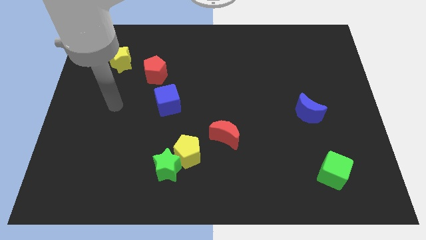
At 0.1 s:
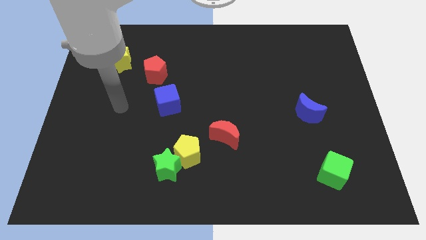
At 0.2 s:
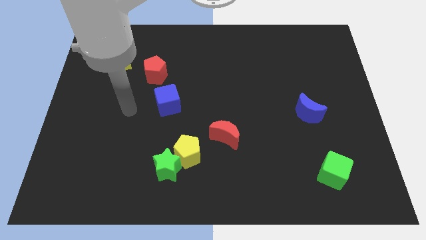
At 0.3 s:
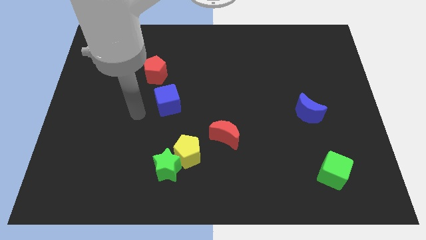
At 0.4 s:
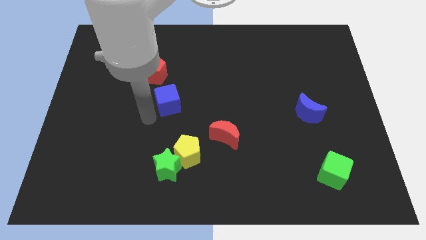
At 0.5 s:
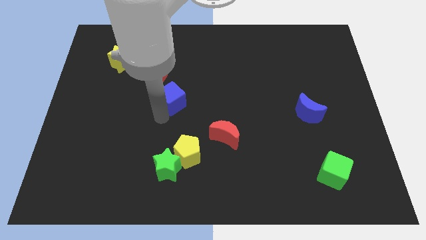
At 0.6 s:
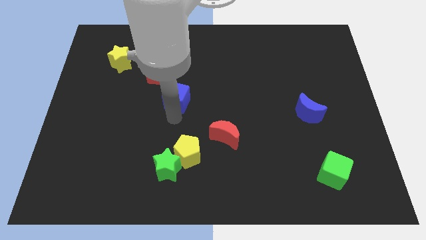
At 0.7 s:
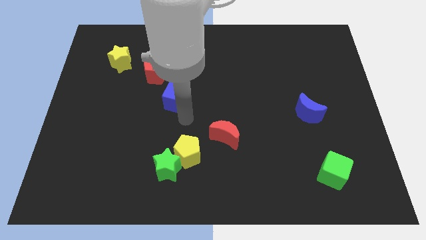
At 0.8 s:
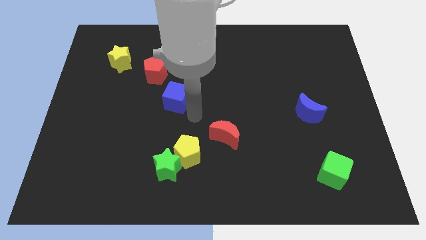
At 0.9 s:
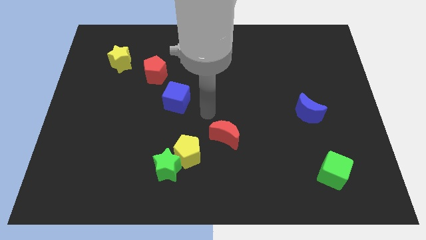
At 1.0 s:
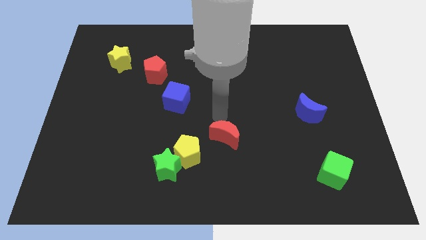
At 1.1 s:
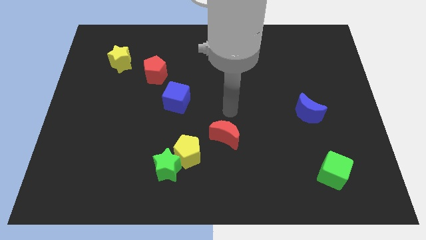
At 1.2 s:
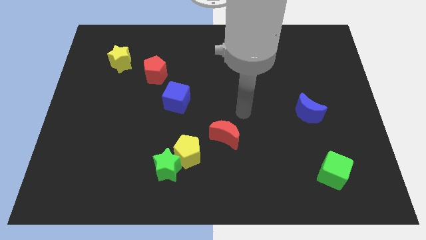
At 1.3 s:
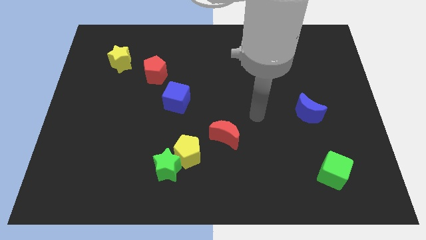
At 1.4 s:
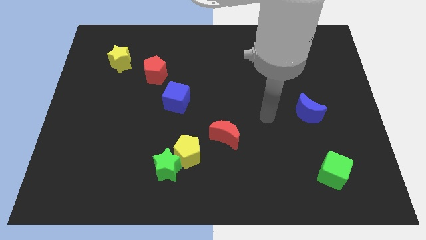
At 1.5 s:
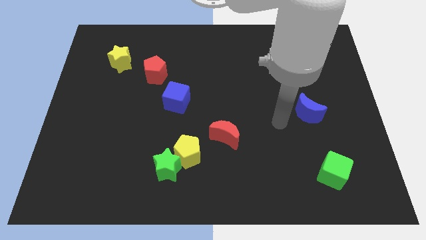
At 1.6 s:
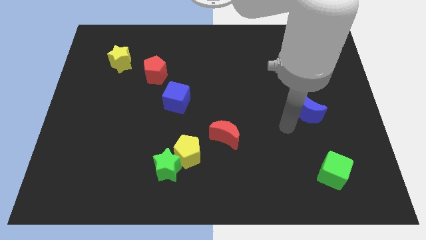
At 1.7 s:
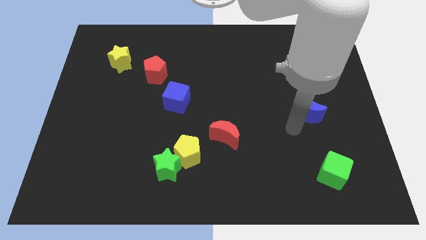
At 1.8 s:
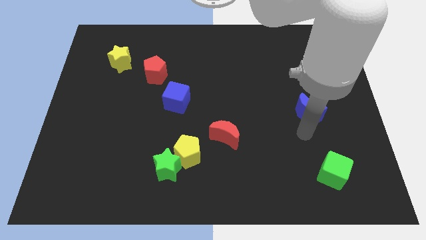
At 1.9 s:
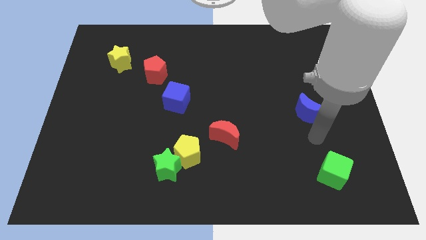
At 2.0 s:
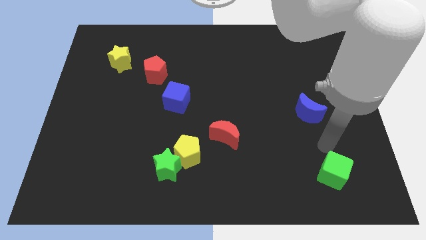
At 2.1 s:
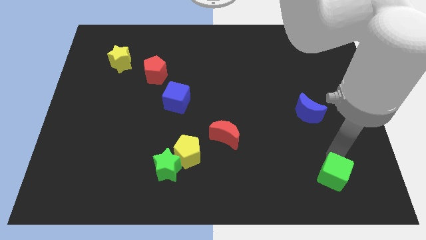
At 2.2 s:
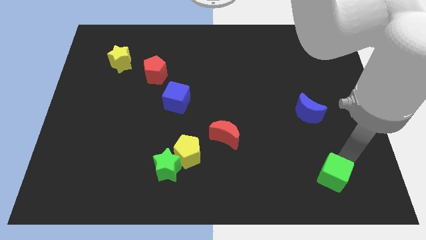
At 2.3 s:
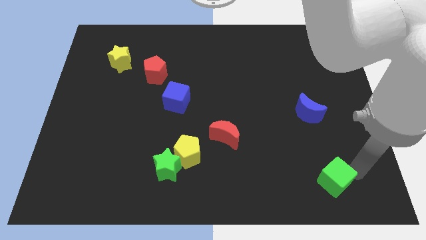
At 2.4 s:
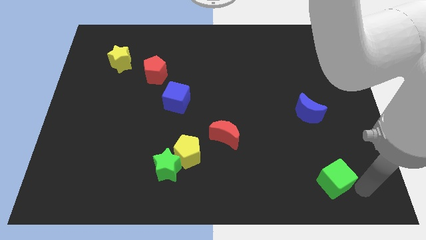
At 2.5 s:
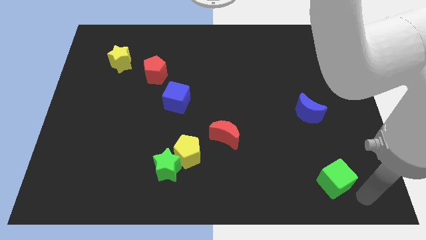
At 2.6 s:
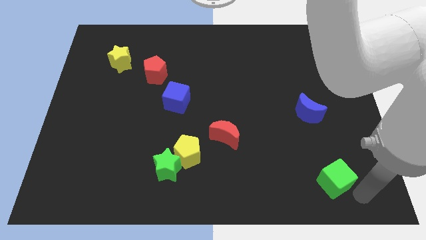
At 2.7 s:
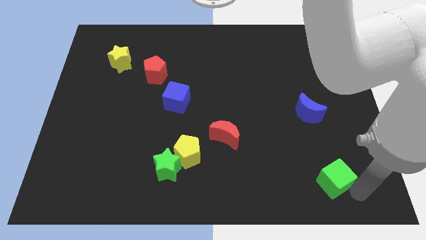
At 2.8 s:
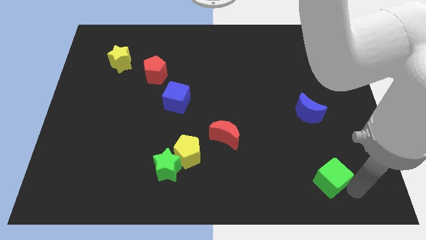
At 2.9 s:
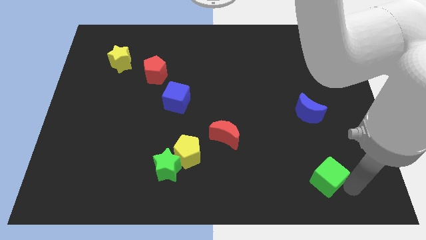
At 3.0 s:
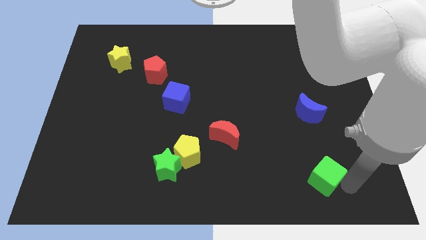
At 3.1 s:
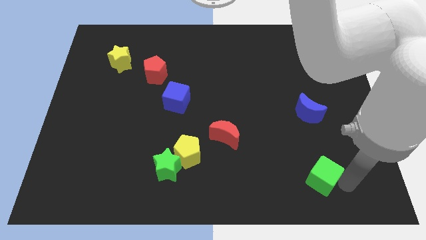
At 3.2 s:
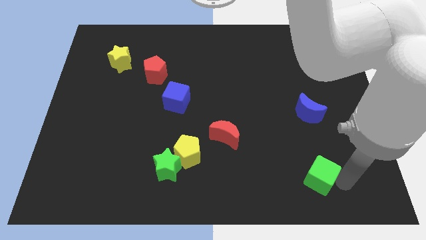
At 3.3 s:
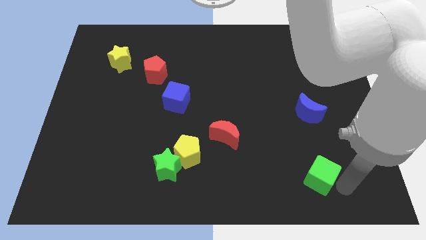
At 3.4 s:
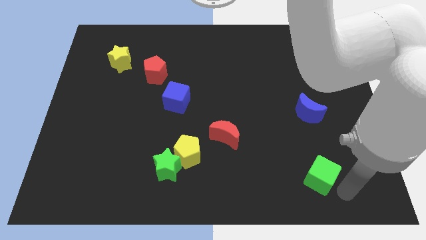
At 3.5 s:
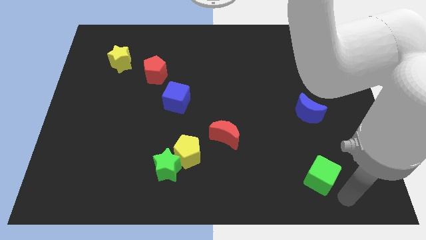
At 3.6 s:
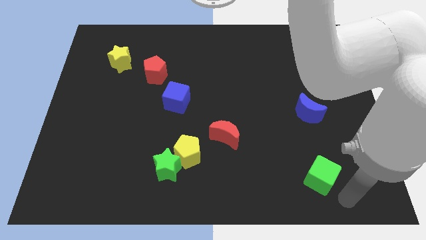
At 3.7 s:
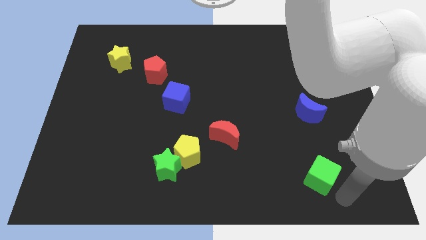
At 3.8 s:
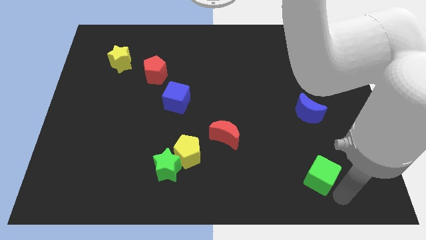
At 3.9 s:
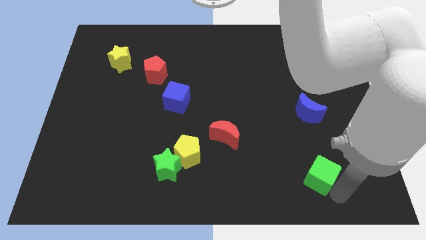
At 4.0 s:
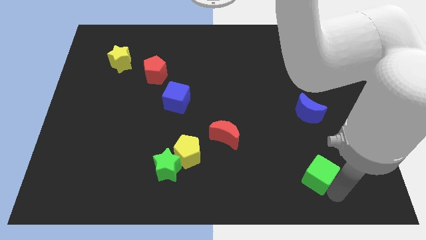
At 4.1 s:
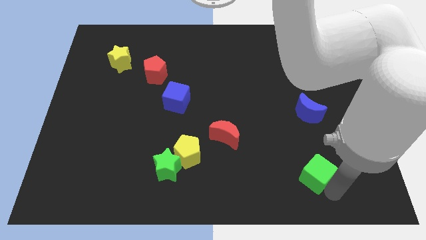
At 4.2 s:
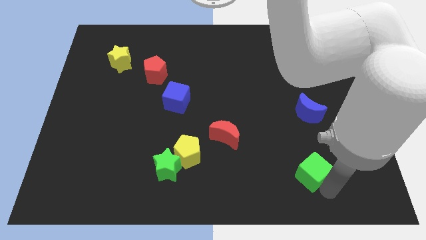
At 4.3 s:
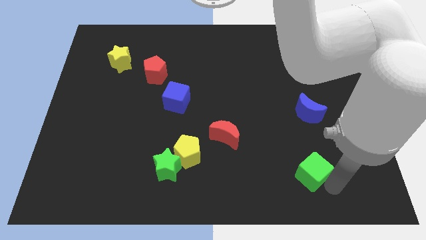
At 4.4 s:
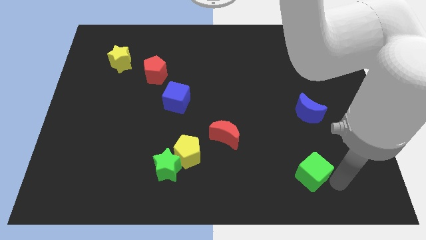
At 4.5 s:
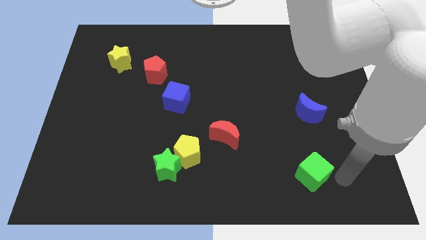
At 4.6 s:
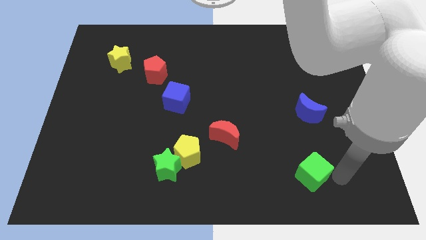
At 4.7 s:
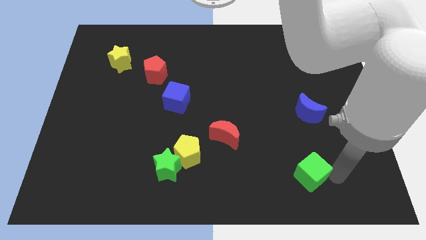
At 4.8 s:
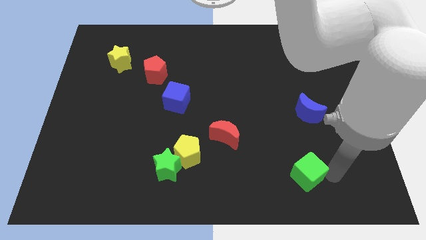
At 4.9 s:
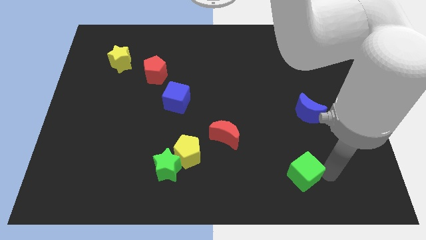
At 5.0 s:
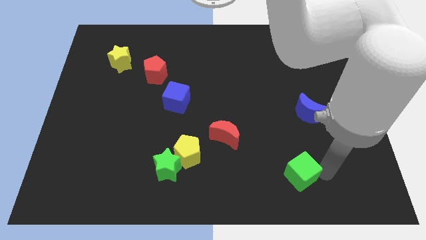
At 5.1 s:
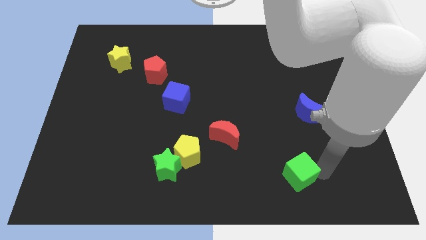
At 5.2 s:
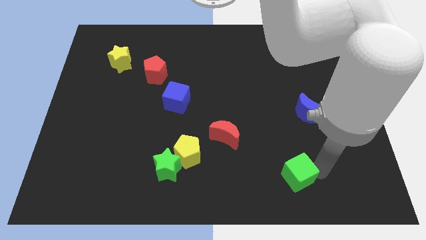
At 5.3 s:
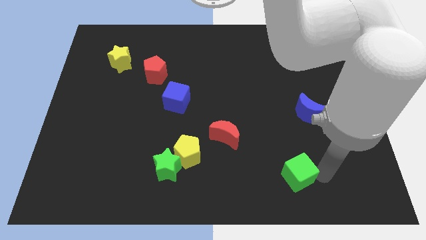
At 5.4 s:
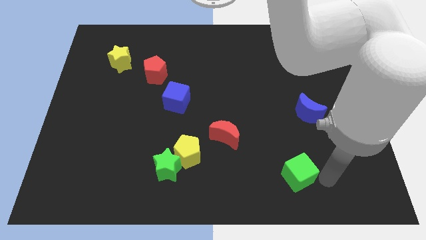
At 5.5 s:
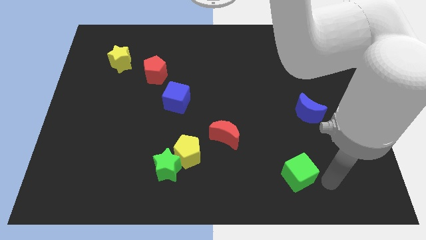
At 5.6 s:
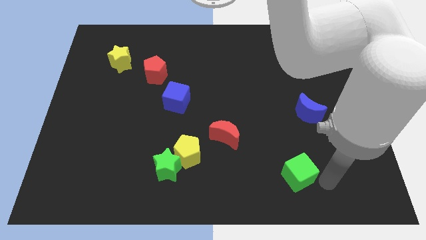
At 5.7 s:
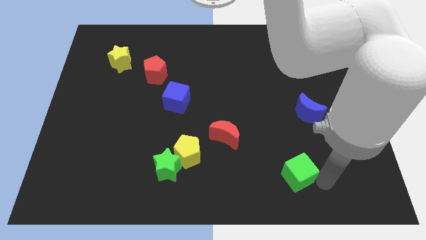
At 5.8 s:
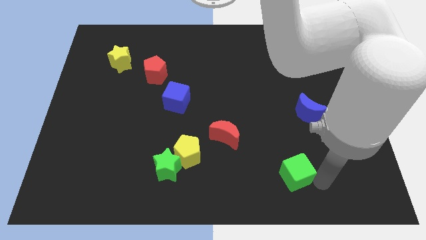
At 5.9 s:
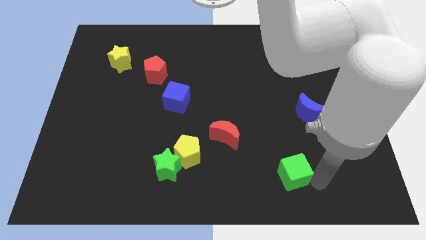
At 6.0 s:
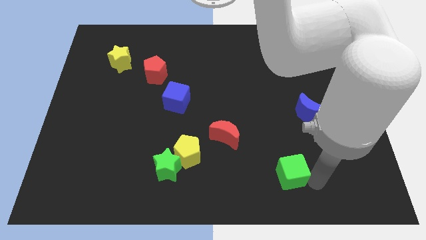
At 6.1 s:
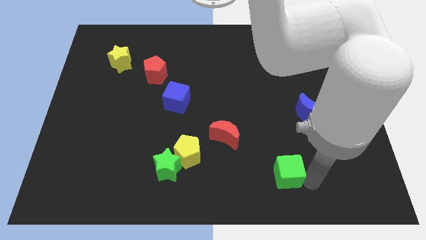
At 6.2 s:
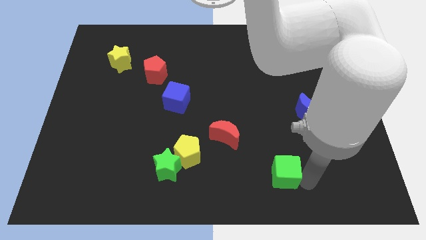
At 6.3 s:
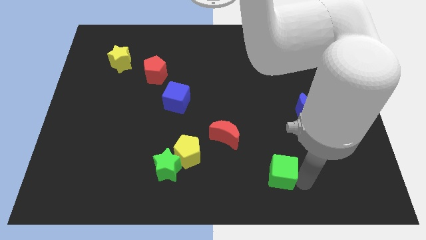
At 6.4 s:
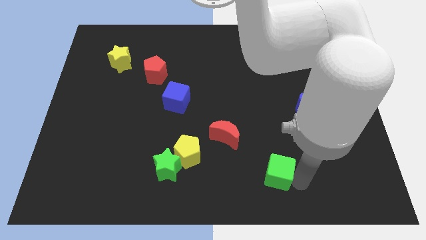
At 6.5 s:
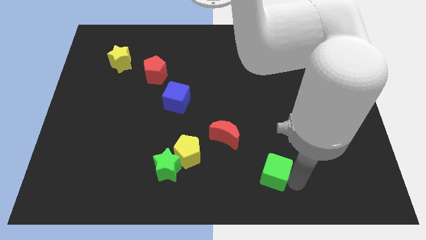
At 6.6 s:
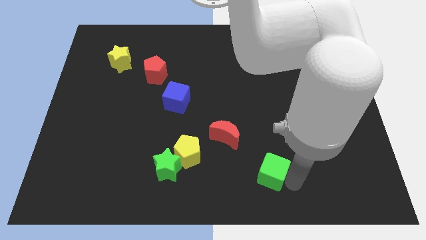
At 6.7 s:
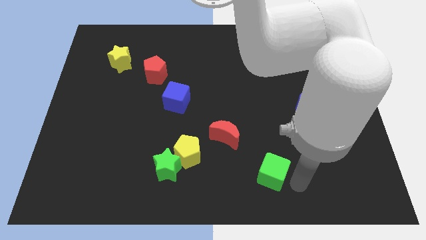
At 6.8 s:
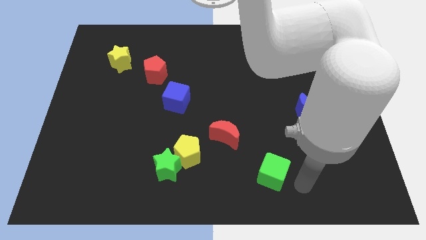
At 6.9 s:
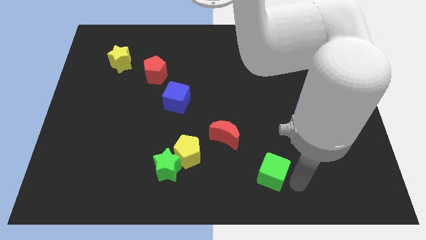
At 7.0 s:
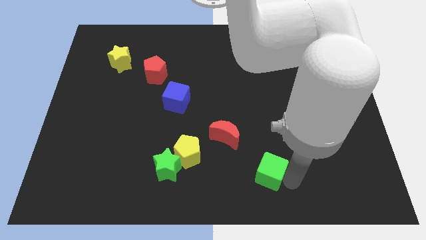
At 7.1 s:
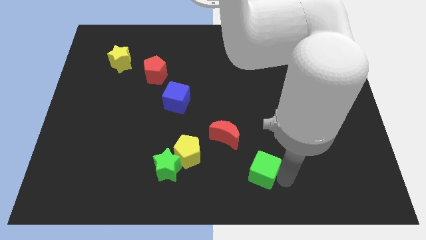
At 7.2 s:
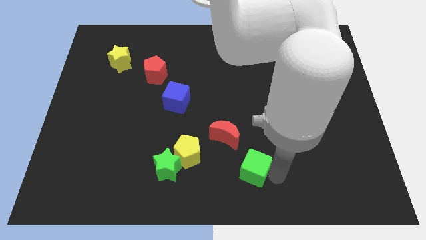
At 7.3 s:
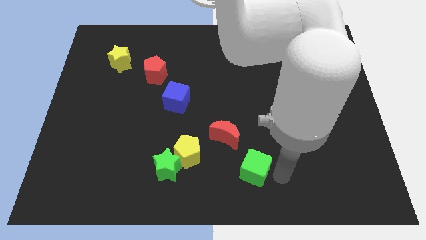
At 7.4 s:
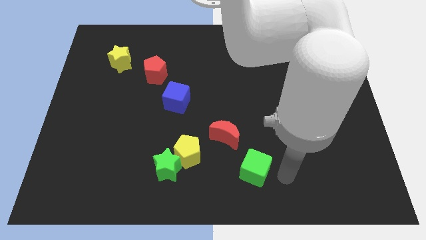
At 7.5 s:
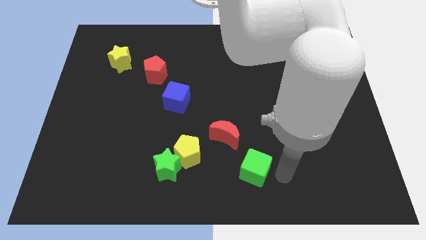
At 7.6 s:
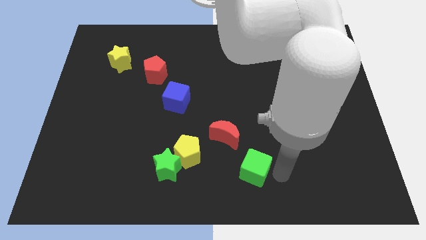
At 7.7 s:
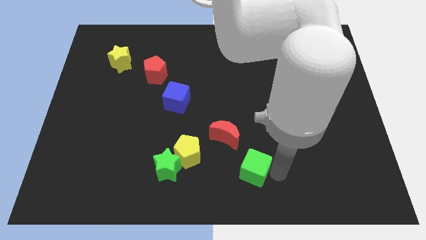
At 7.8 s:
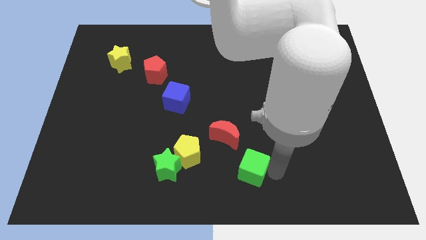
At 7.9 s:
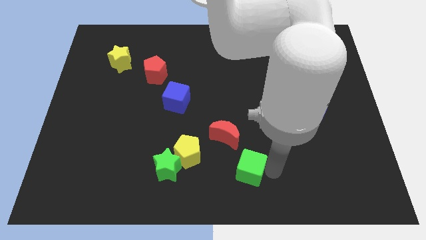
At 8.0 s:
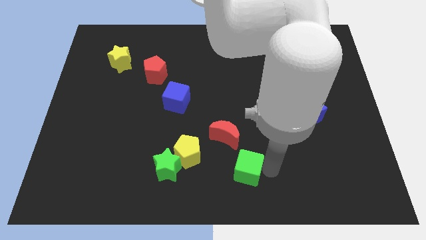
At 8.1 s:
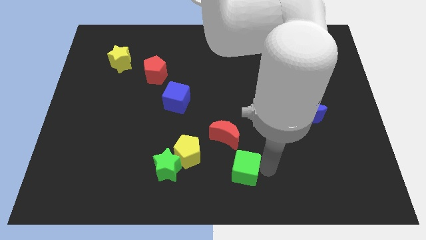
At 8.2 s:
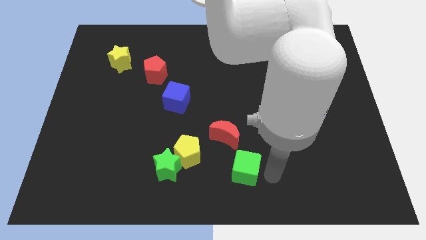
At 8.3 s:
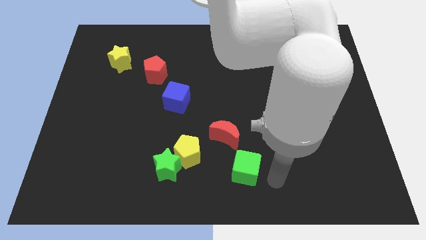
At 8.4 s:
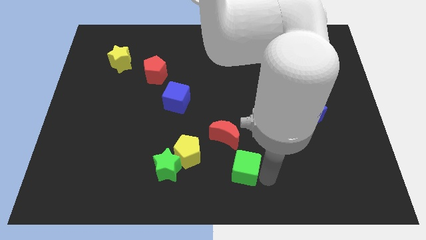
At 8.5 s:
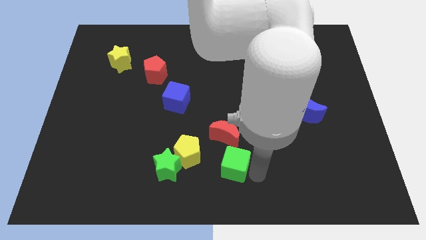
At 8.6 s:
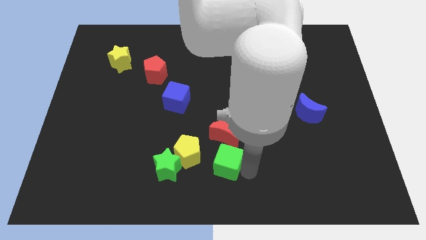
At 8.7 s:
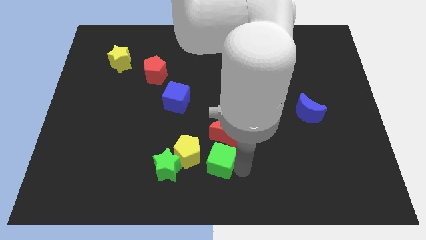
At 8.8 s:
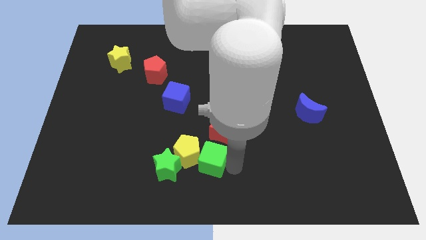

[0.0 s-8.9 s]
push the green cube close to the yellow pentagon
